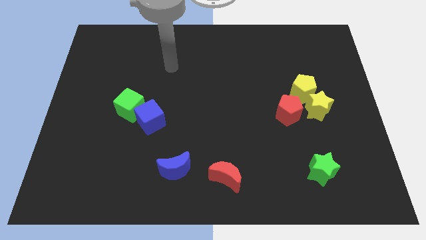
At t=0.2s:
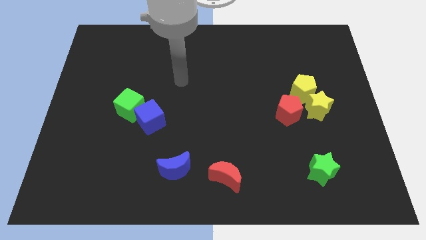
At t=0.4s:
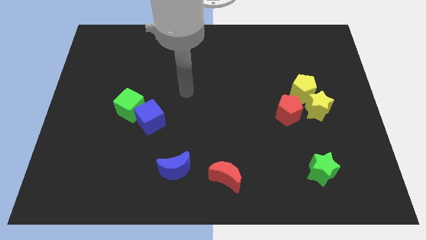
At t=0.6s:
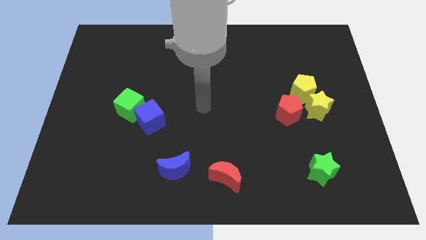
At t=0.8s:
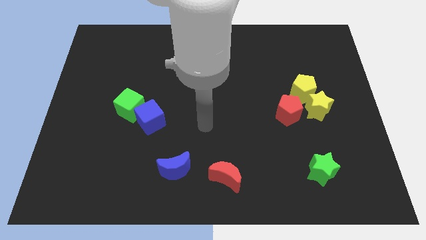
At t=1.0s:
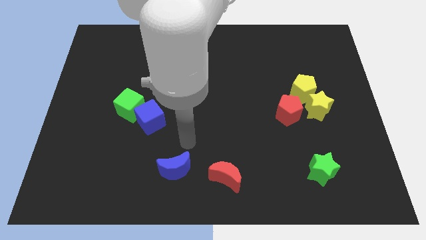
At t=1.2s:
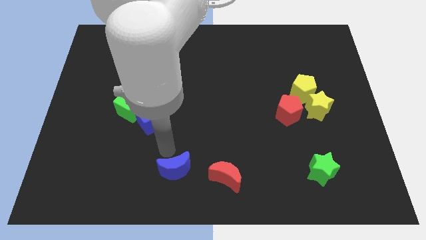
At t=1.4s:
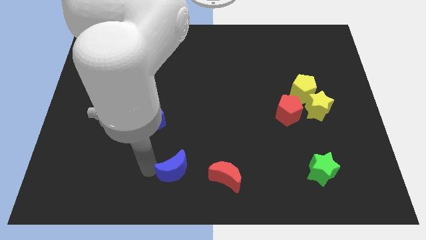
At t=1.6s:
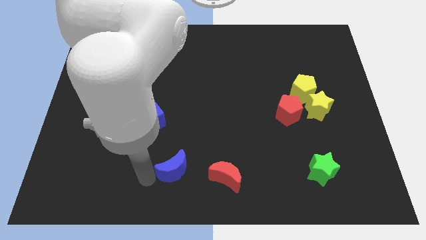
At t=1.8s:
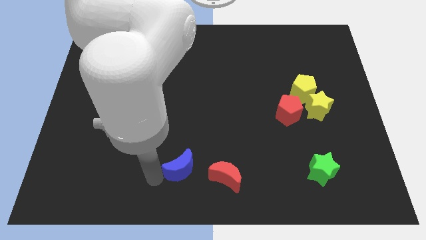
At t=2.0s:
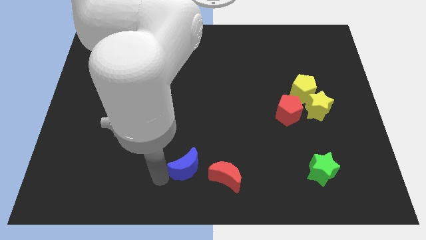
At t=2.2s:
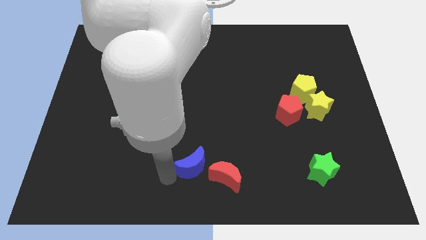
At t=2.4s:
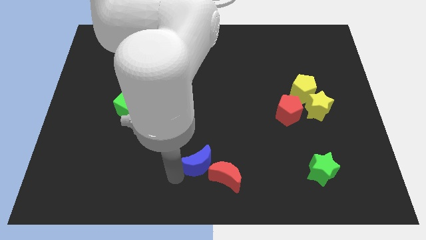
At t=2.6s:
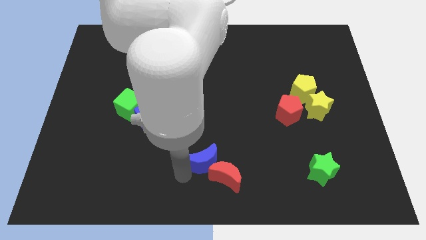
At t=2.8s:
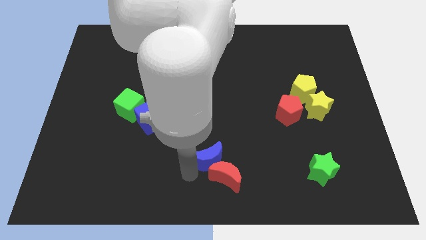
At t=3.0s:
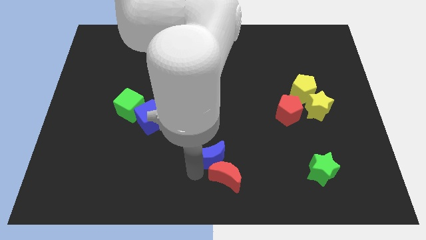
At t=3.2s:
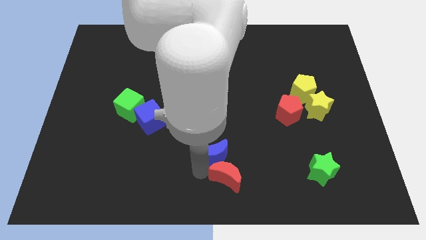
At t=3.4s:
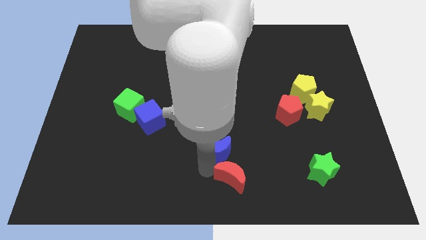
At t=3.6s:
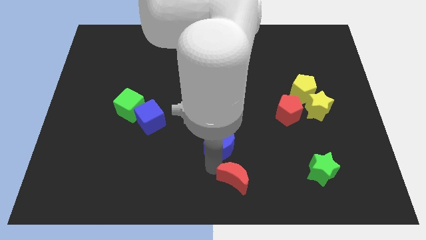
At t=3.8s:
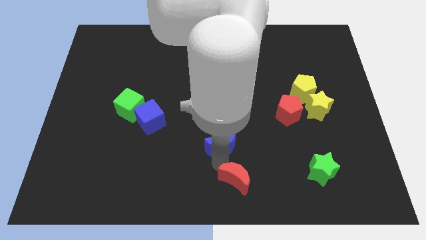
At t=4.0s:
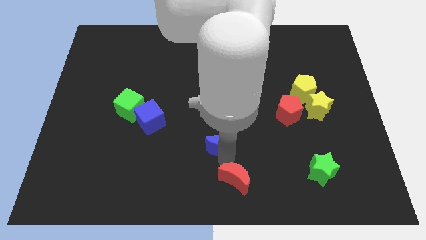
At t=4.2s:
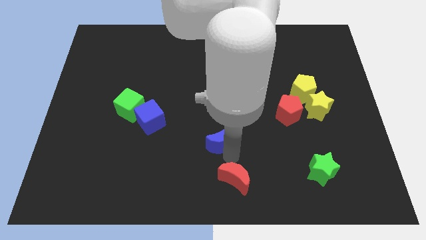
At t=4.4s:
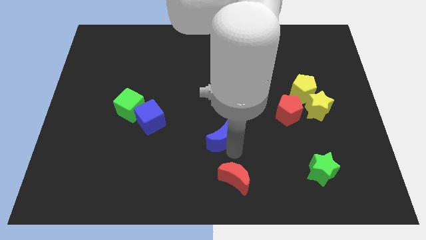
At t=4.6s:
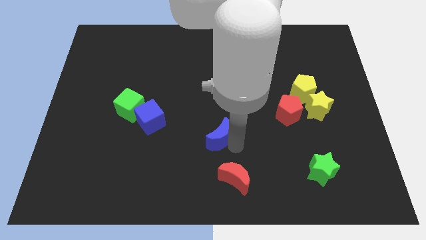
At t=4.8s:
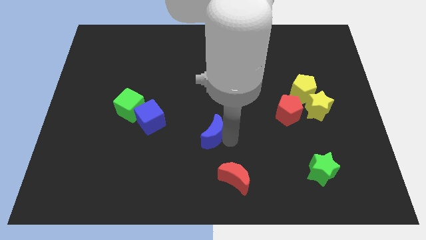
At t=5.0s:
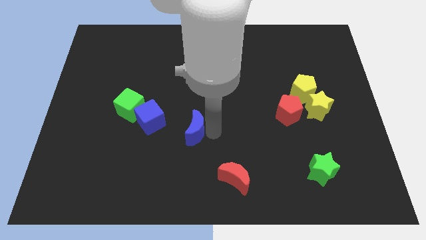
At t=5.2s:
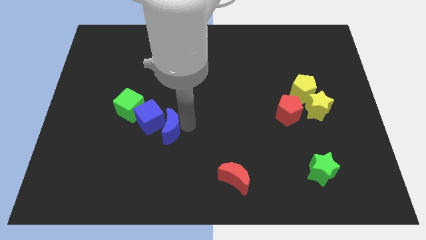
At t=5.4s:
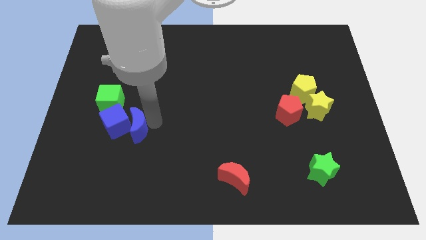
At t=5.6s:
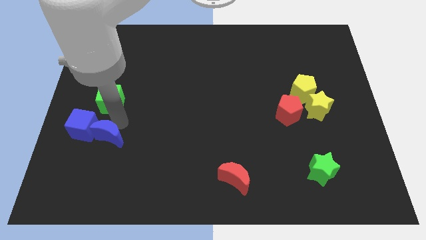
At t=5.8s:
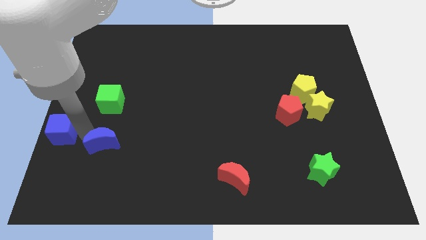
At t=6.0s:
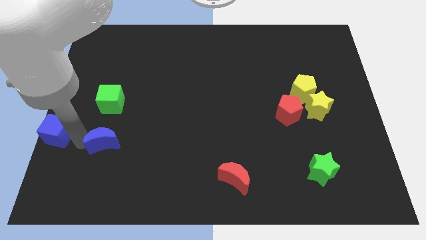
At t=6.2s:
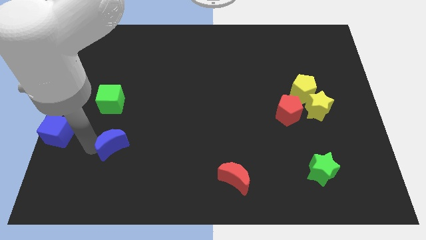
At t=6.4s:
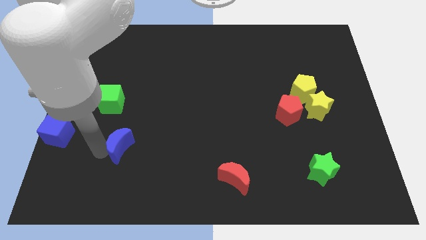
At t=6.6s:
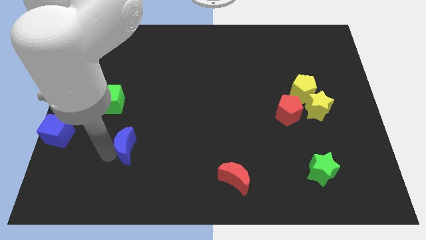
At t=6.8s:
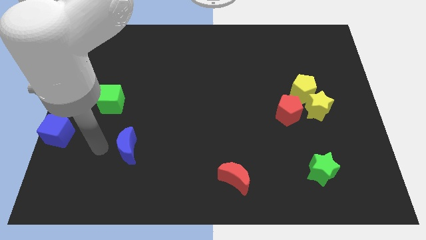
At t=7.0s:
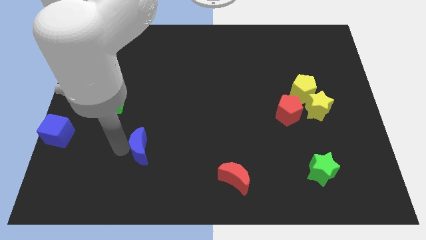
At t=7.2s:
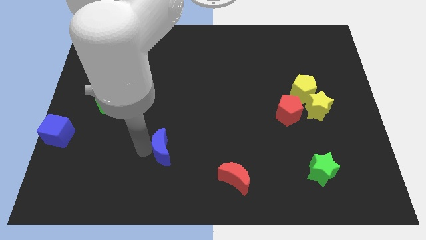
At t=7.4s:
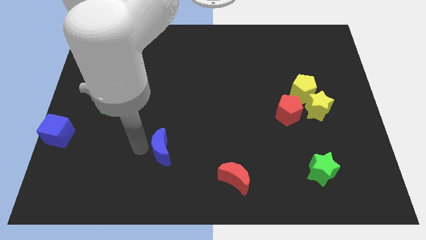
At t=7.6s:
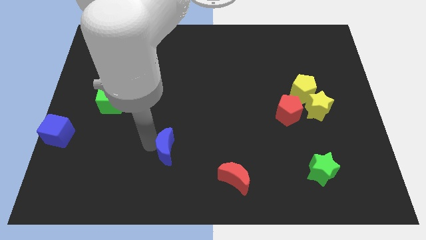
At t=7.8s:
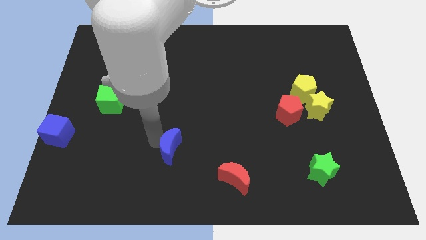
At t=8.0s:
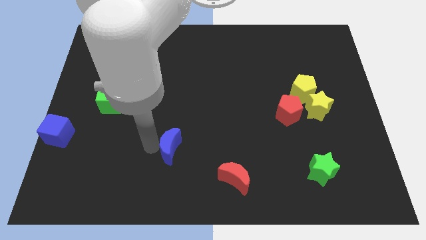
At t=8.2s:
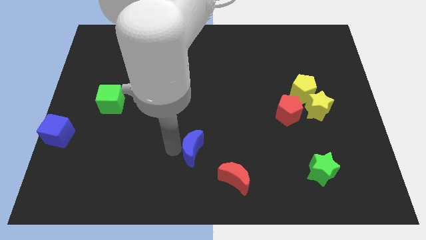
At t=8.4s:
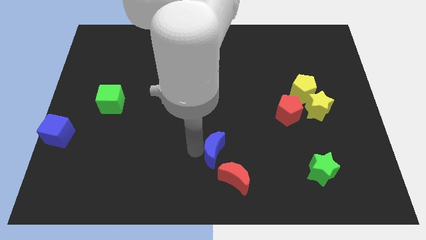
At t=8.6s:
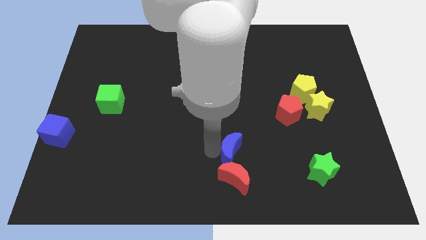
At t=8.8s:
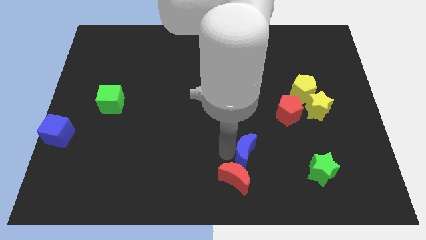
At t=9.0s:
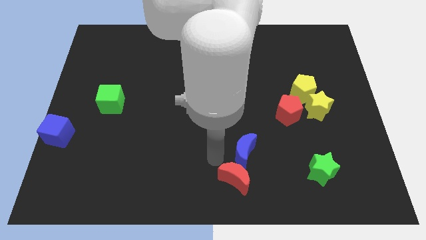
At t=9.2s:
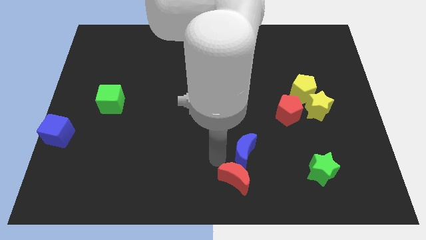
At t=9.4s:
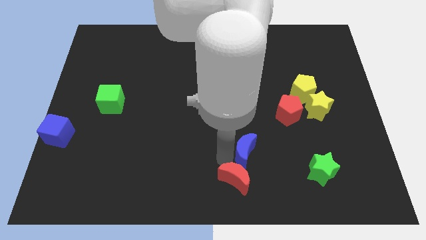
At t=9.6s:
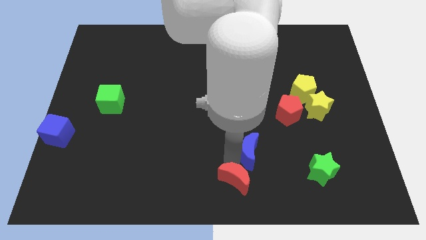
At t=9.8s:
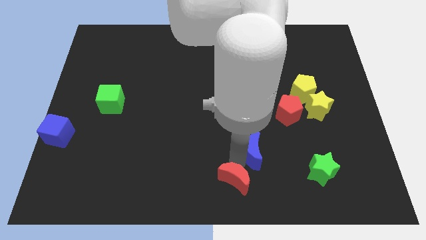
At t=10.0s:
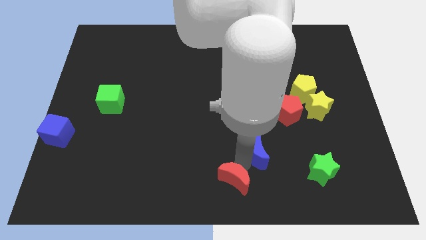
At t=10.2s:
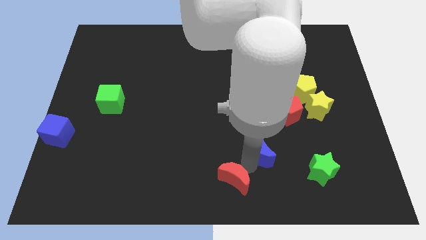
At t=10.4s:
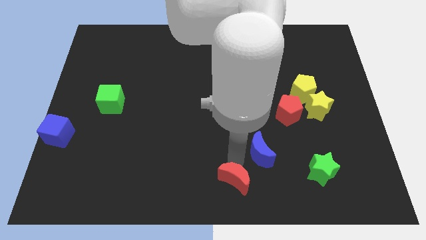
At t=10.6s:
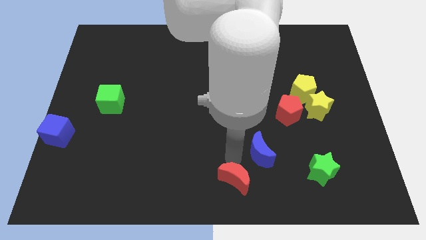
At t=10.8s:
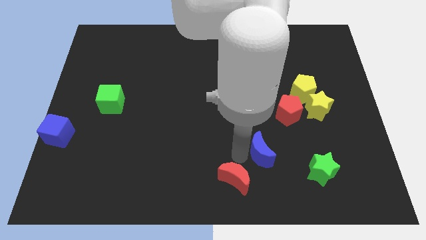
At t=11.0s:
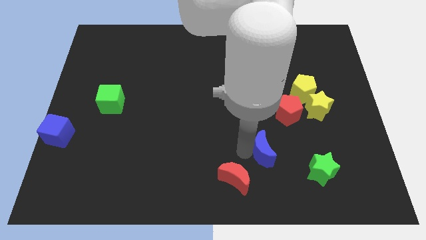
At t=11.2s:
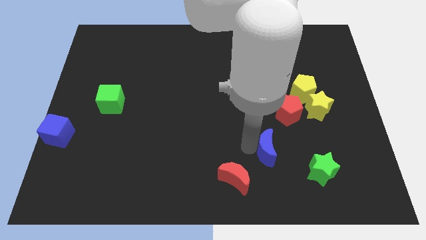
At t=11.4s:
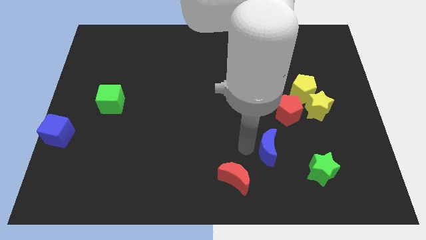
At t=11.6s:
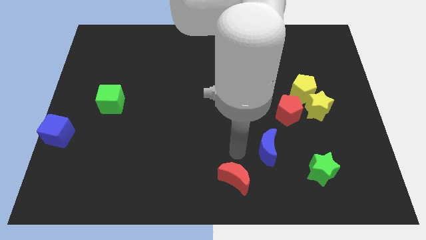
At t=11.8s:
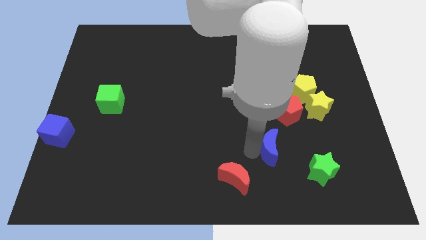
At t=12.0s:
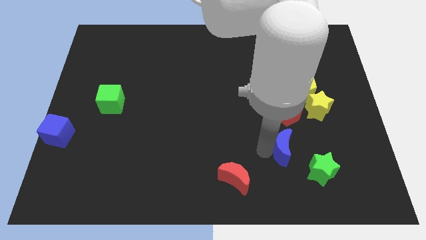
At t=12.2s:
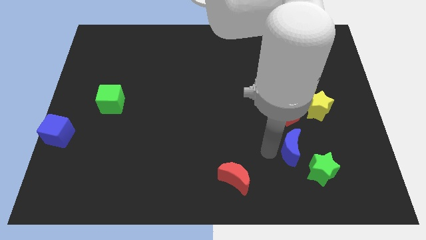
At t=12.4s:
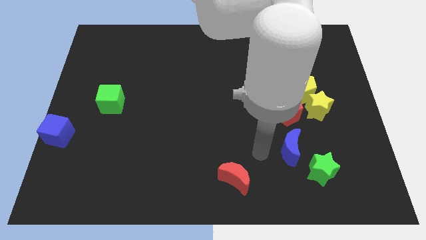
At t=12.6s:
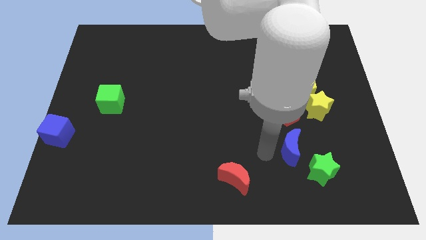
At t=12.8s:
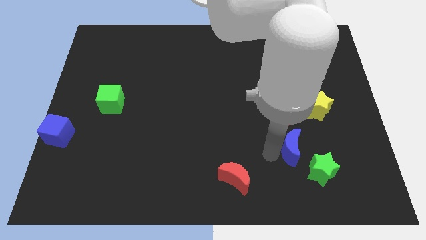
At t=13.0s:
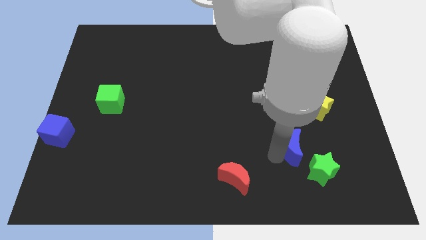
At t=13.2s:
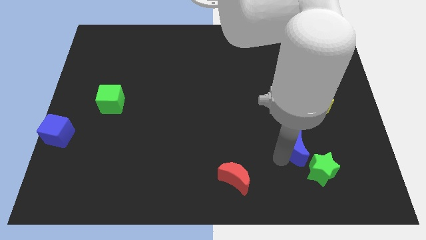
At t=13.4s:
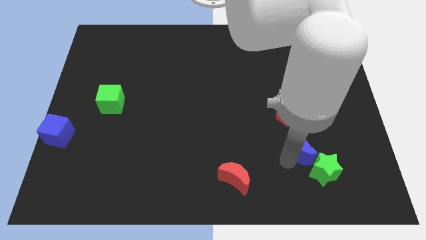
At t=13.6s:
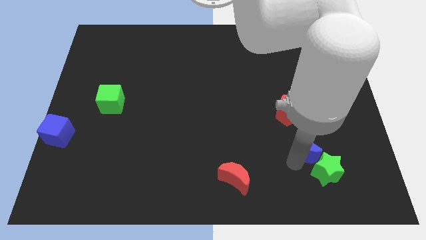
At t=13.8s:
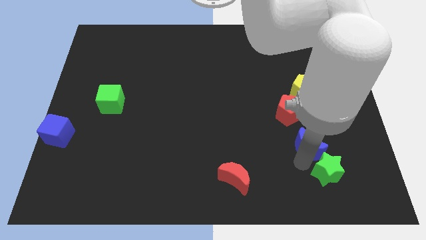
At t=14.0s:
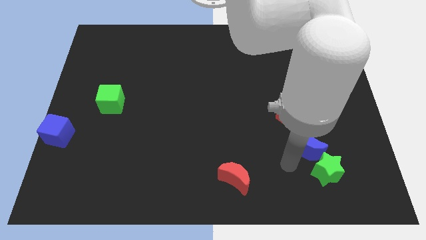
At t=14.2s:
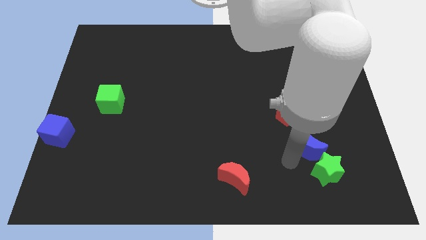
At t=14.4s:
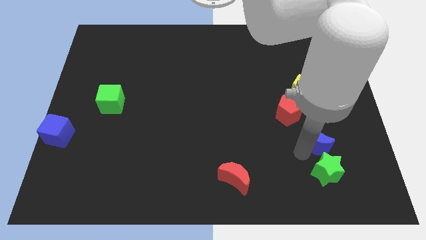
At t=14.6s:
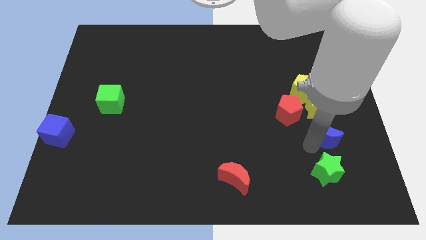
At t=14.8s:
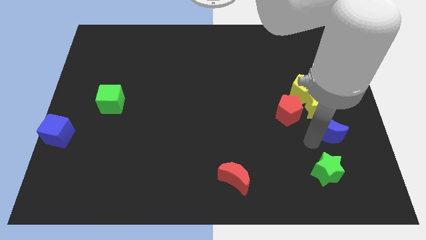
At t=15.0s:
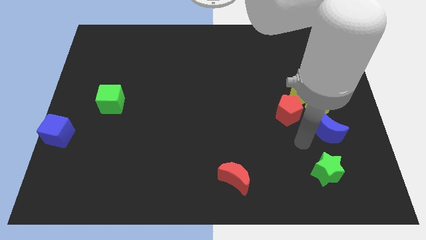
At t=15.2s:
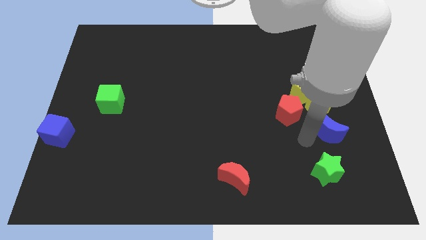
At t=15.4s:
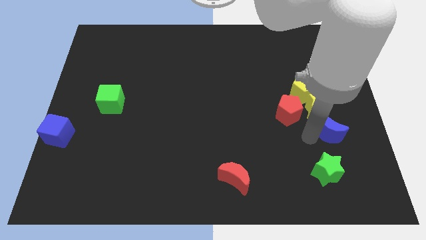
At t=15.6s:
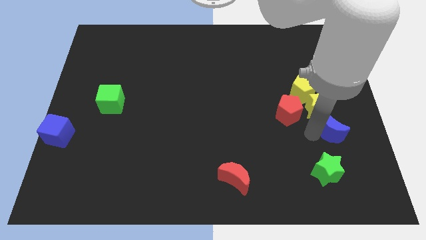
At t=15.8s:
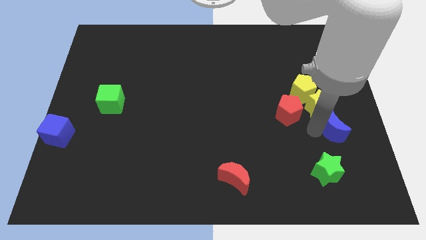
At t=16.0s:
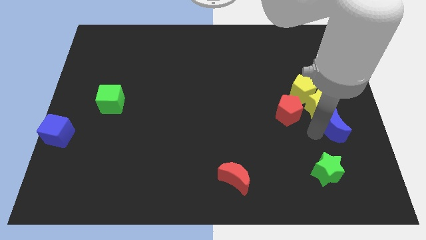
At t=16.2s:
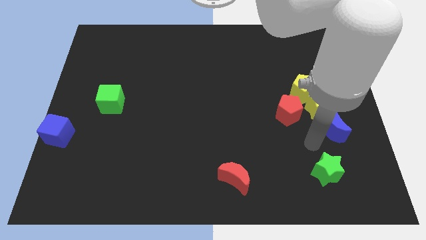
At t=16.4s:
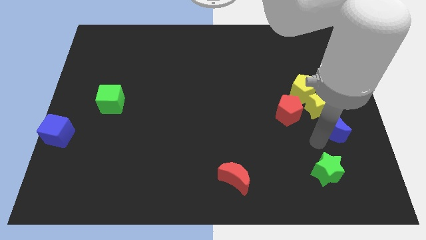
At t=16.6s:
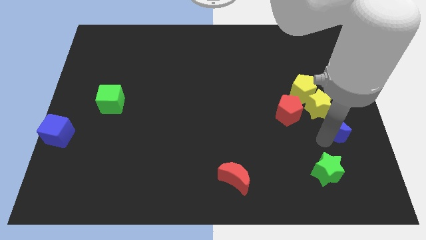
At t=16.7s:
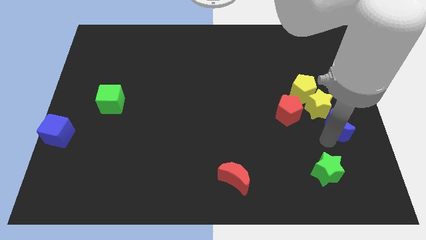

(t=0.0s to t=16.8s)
move the blue moon to the center right
